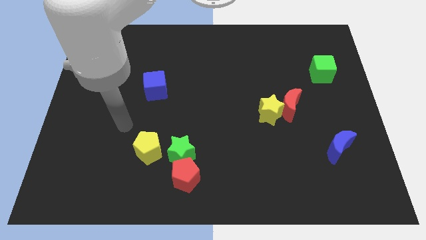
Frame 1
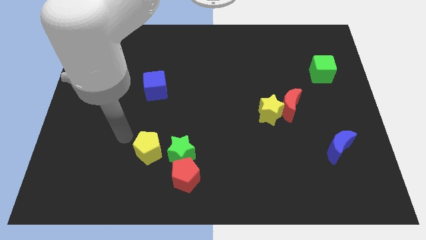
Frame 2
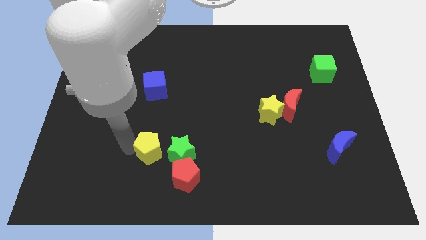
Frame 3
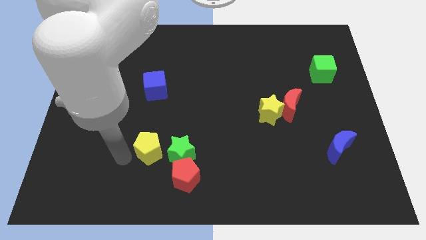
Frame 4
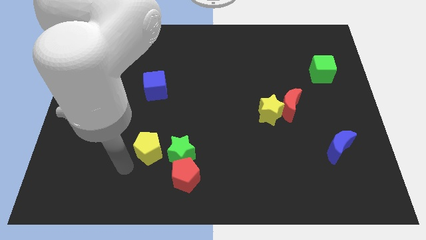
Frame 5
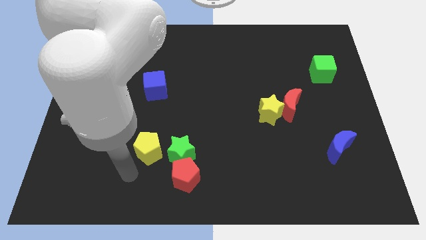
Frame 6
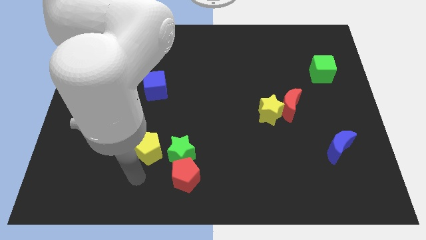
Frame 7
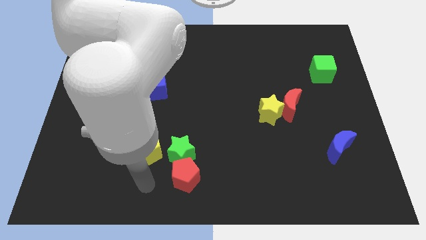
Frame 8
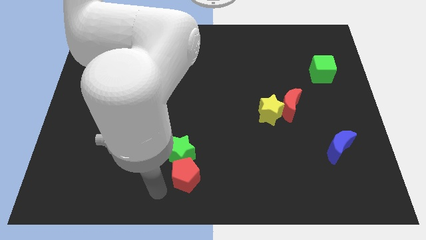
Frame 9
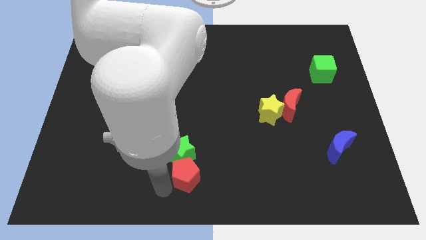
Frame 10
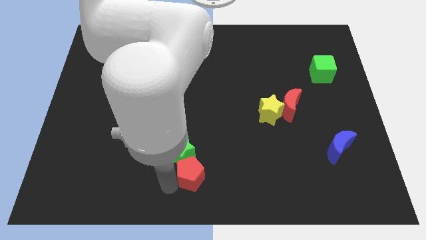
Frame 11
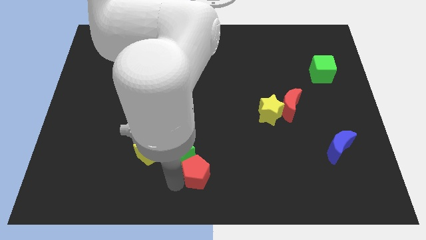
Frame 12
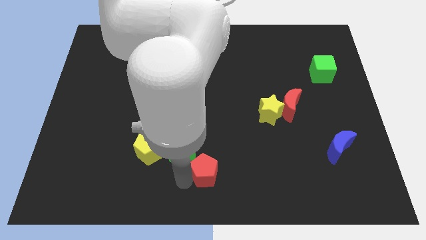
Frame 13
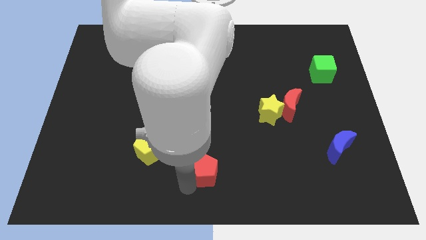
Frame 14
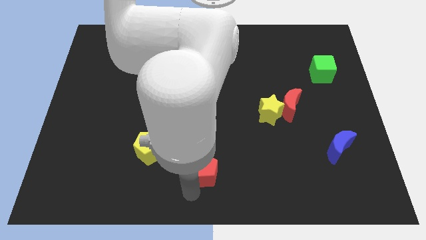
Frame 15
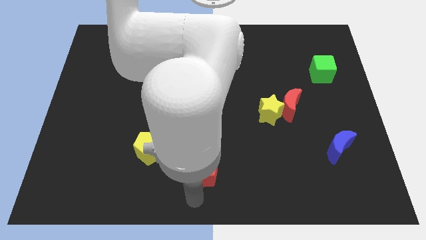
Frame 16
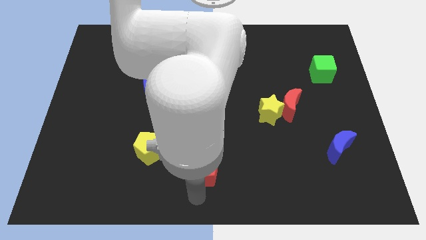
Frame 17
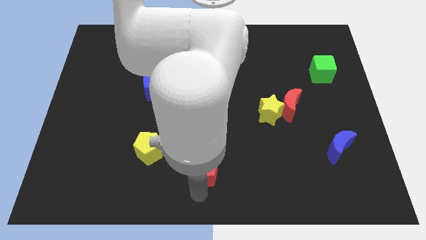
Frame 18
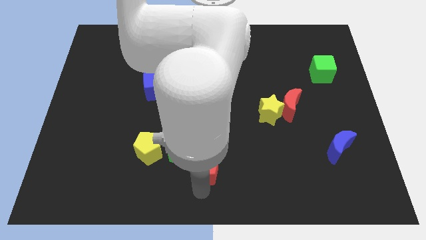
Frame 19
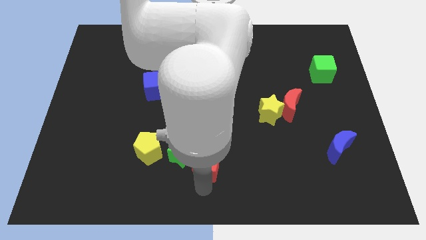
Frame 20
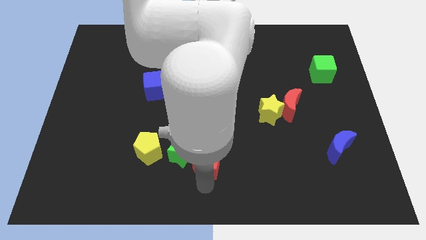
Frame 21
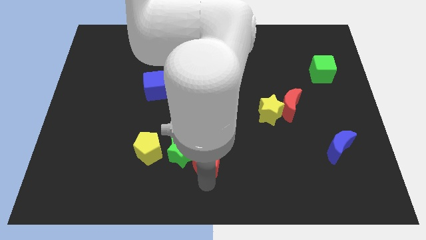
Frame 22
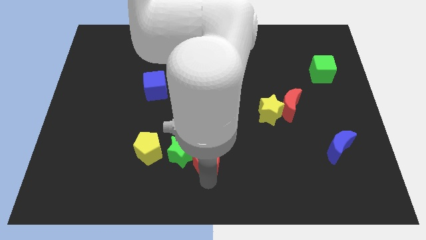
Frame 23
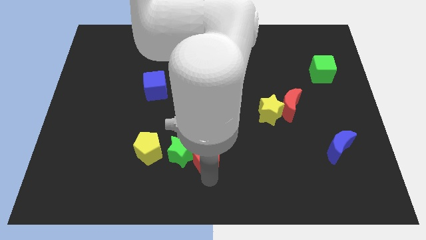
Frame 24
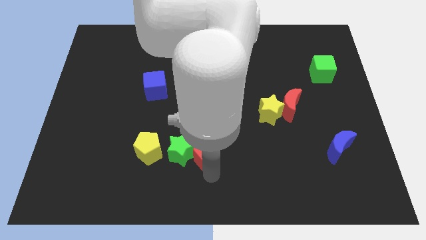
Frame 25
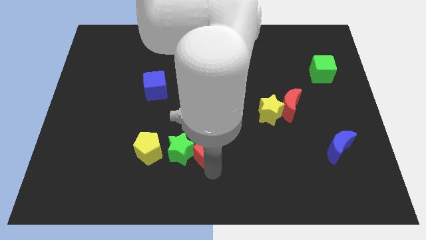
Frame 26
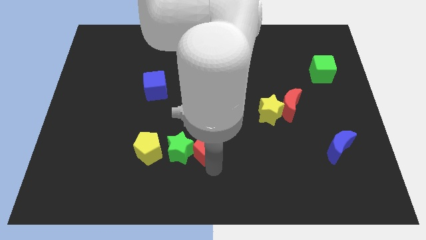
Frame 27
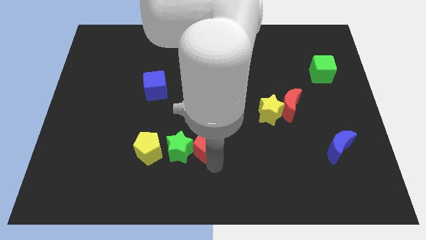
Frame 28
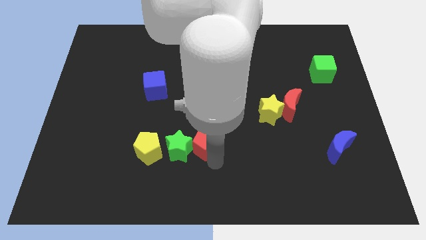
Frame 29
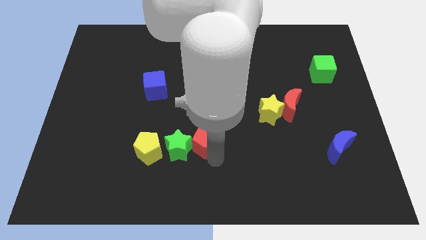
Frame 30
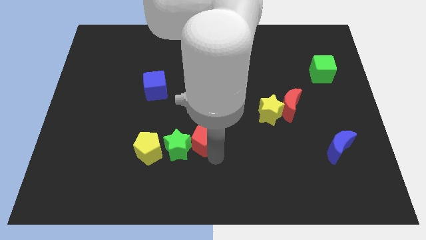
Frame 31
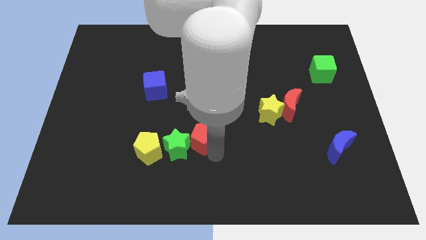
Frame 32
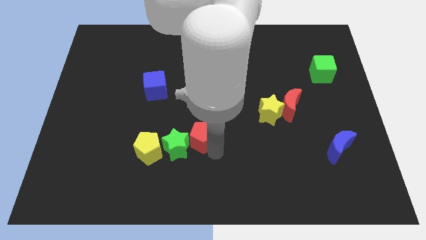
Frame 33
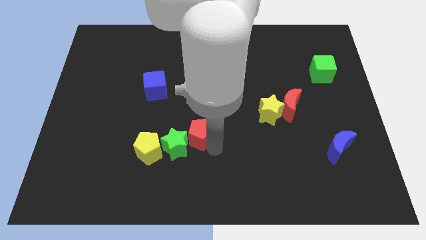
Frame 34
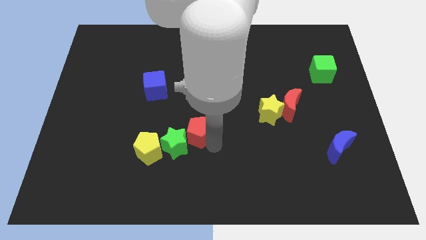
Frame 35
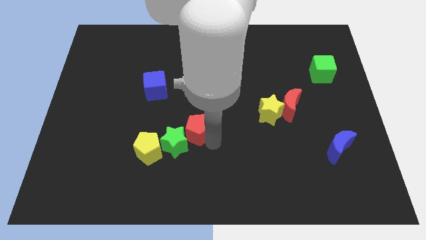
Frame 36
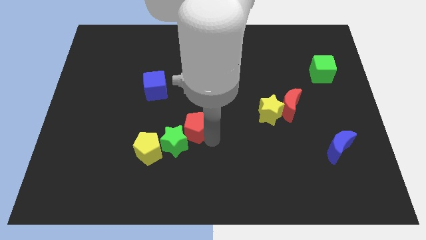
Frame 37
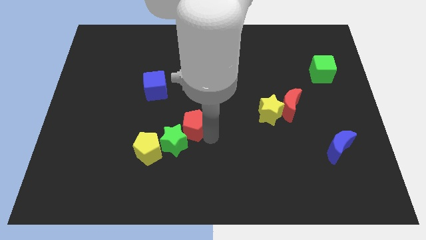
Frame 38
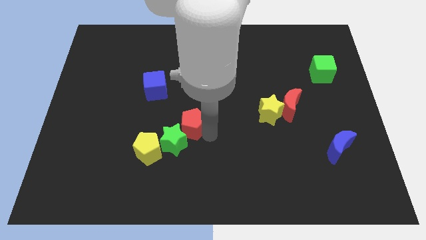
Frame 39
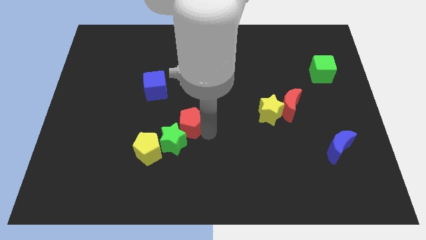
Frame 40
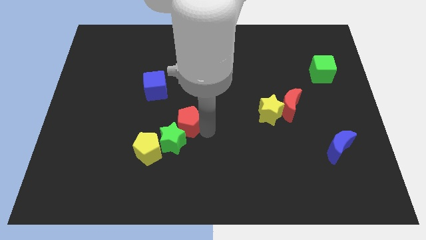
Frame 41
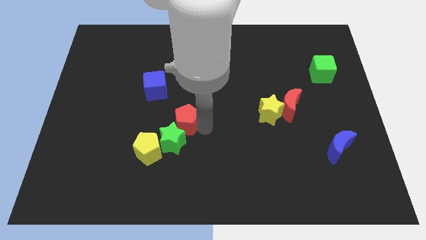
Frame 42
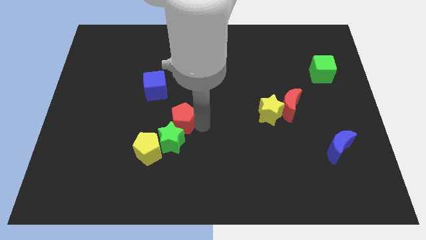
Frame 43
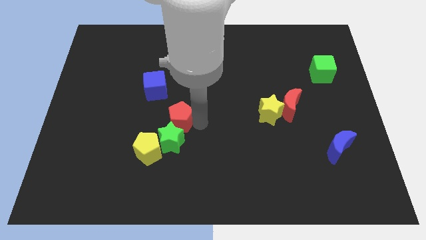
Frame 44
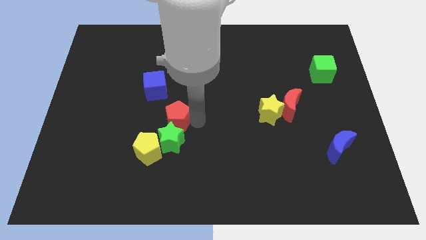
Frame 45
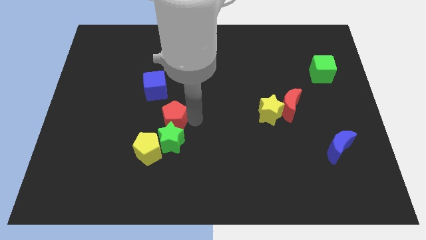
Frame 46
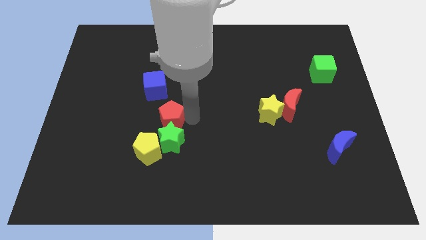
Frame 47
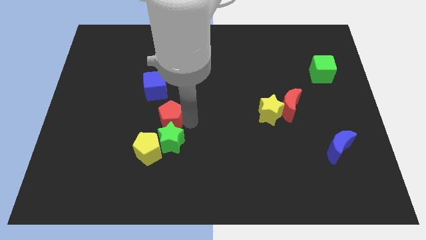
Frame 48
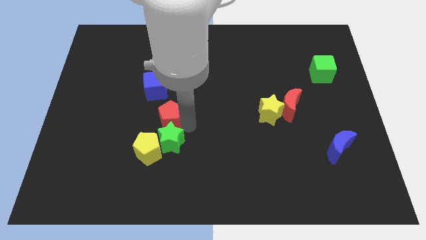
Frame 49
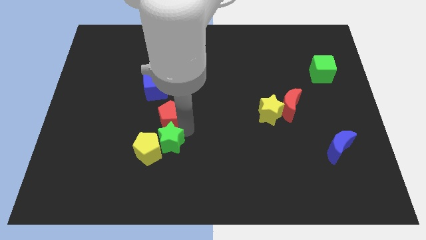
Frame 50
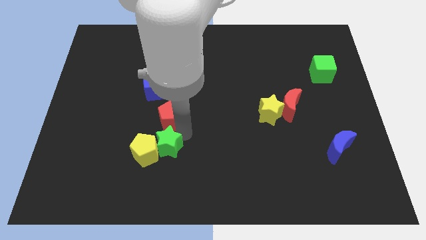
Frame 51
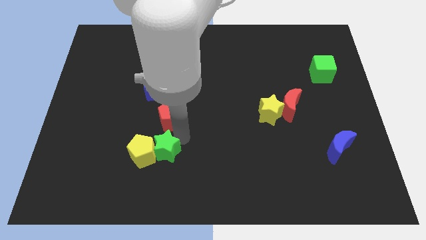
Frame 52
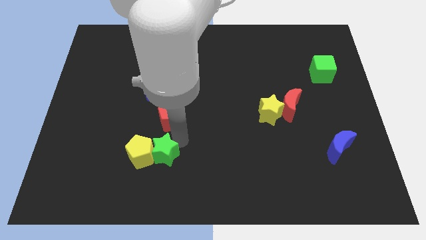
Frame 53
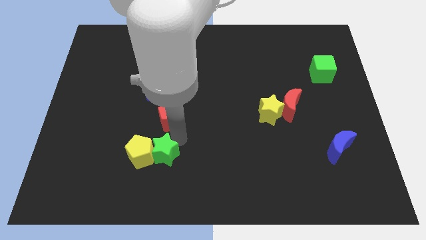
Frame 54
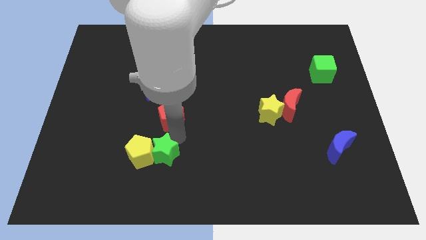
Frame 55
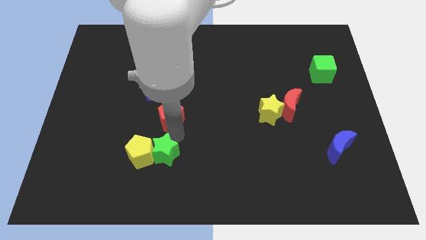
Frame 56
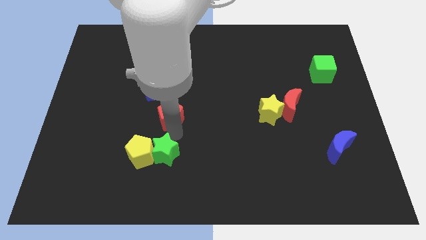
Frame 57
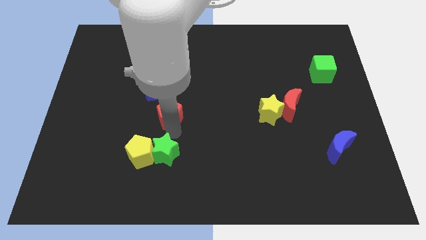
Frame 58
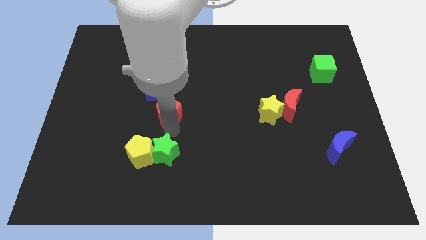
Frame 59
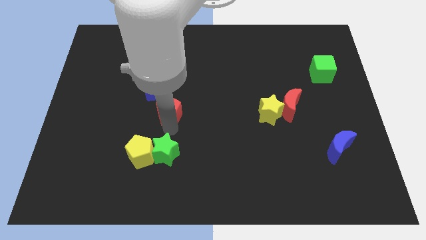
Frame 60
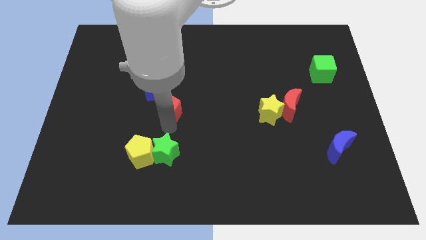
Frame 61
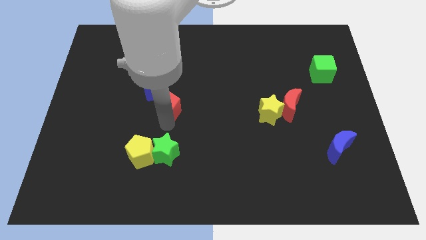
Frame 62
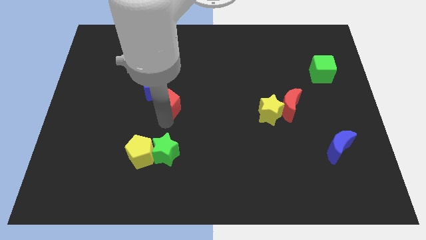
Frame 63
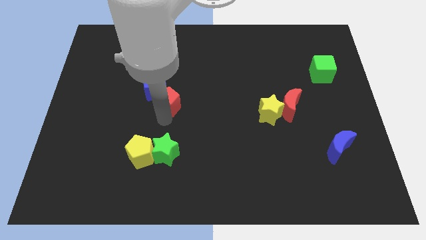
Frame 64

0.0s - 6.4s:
put the red pentagon towards the blue cube
